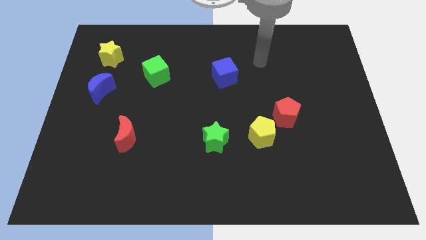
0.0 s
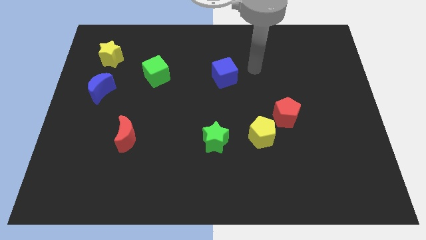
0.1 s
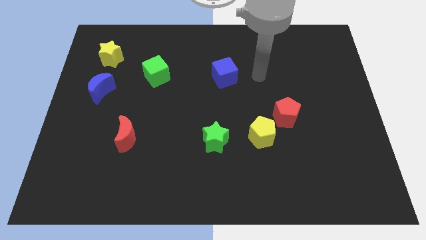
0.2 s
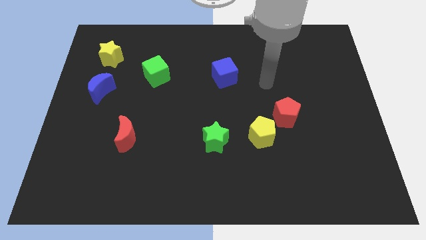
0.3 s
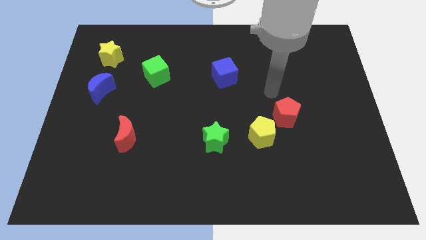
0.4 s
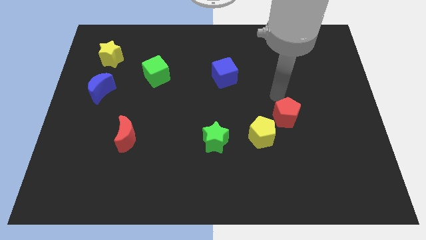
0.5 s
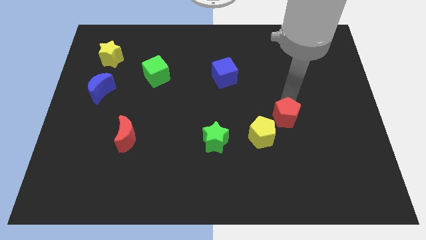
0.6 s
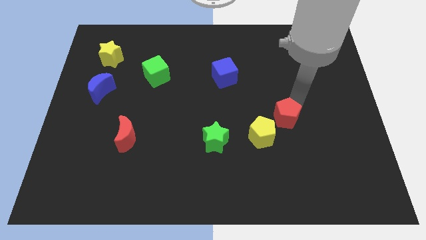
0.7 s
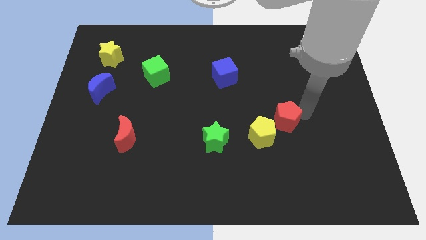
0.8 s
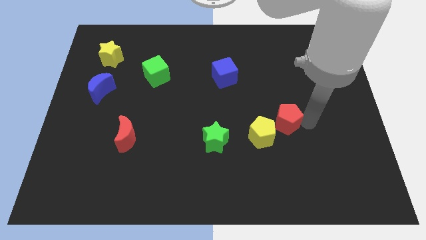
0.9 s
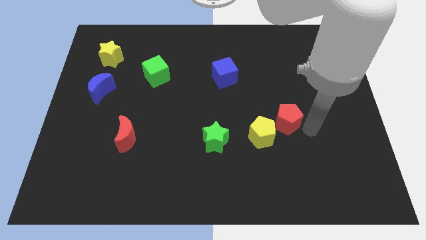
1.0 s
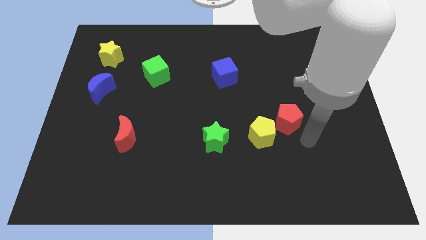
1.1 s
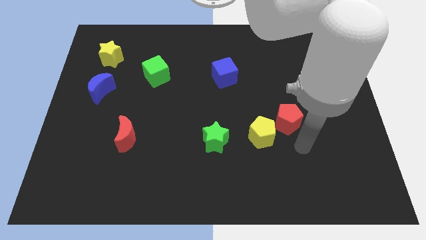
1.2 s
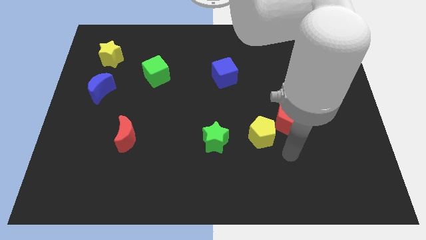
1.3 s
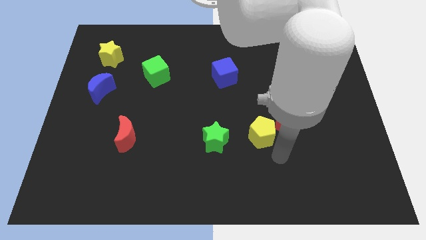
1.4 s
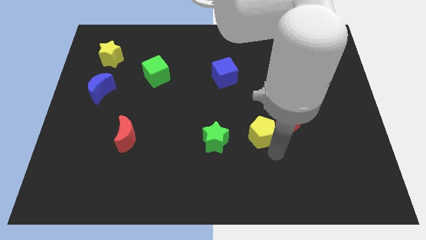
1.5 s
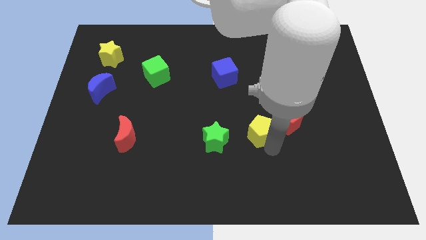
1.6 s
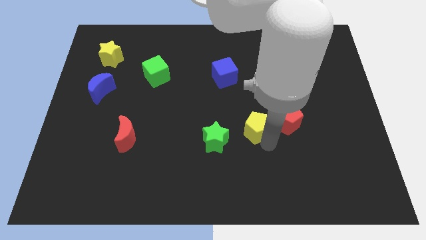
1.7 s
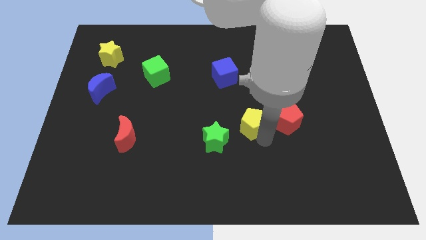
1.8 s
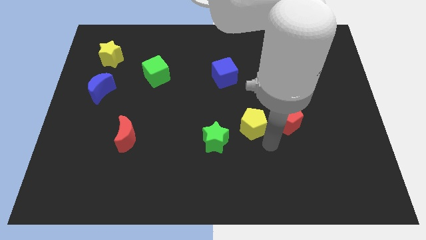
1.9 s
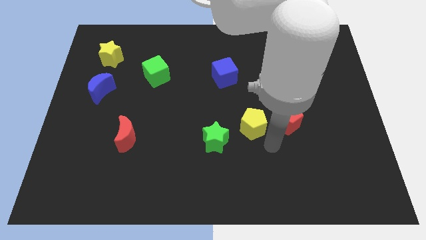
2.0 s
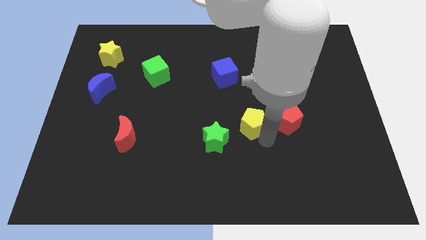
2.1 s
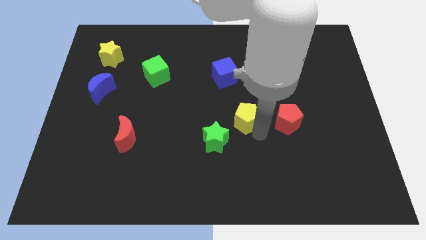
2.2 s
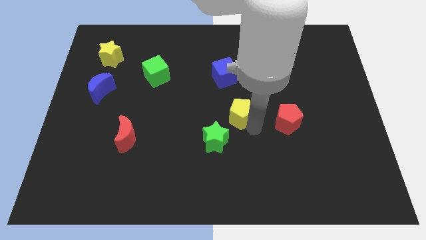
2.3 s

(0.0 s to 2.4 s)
push the yellow pentagon somewhat diagonally up and left

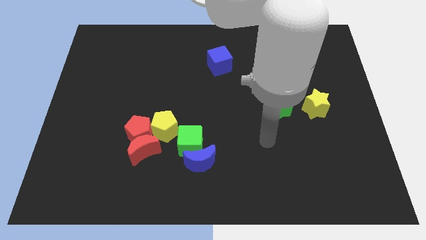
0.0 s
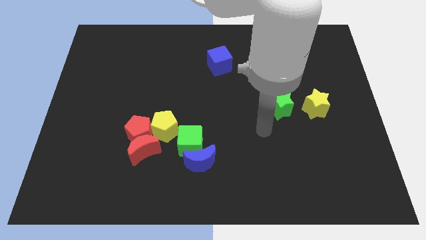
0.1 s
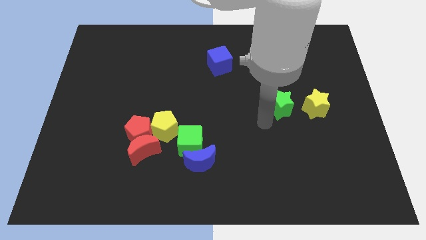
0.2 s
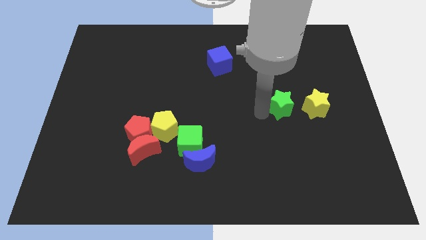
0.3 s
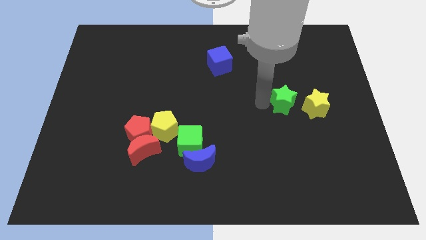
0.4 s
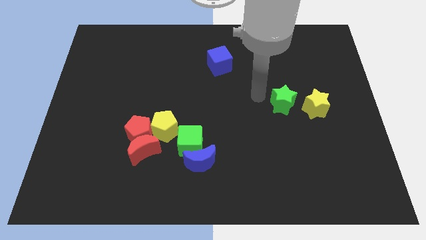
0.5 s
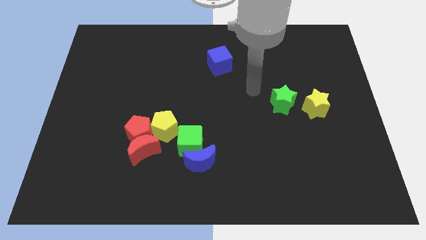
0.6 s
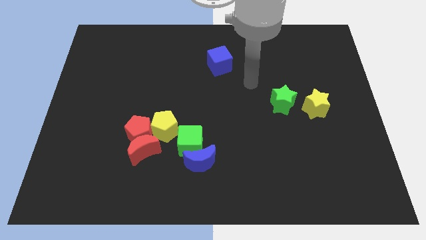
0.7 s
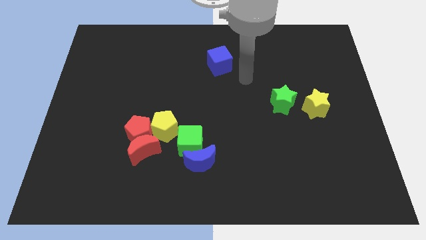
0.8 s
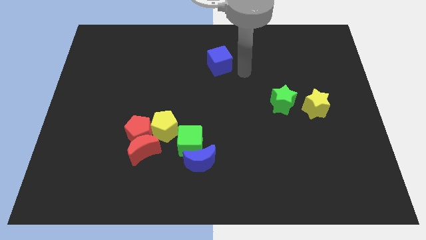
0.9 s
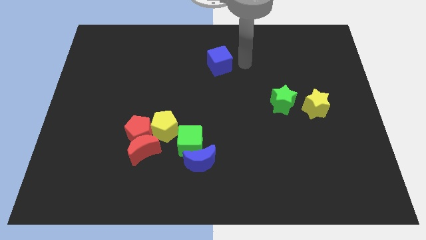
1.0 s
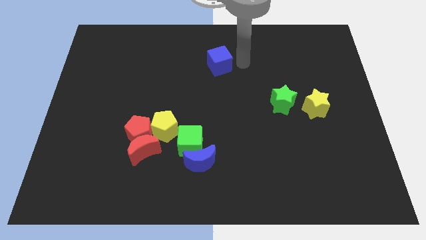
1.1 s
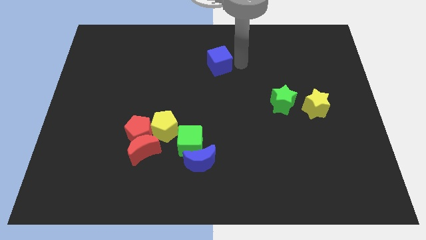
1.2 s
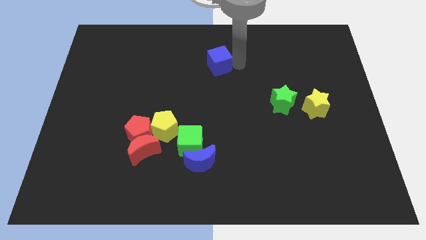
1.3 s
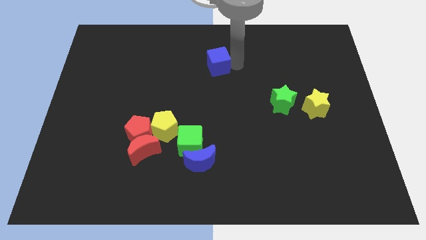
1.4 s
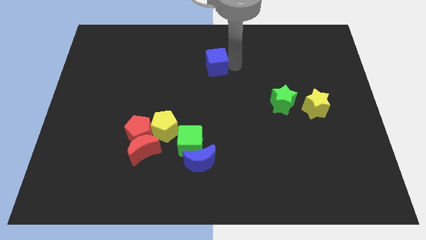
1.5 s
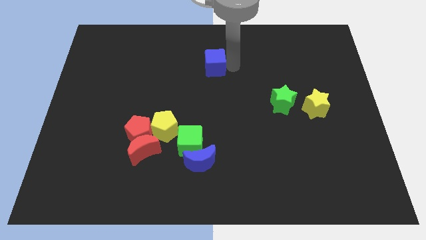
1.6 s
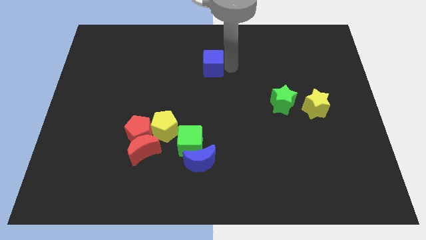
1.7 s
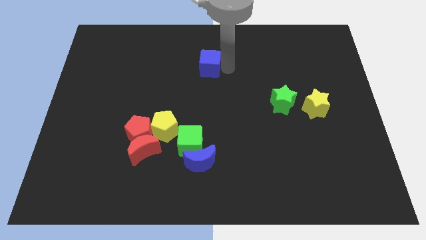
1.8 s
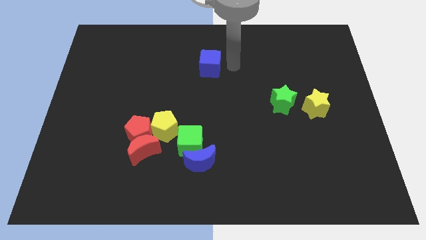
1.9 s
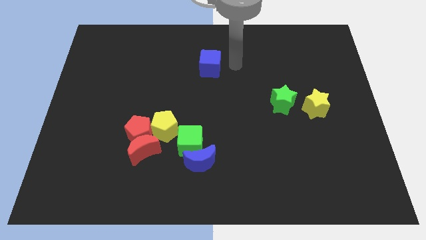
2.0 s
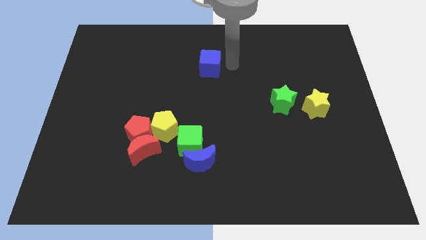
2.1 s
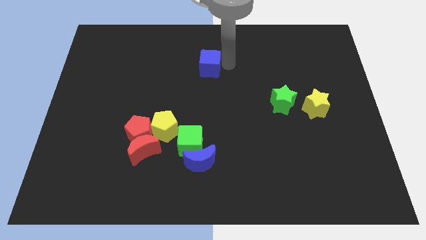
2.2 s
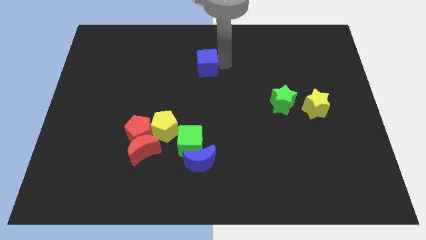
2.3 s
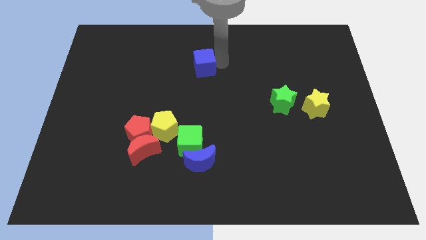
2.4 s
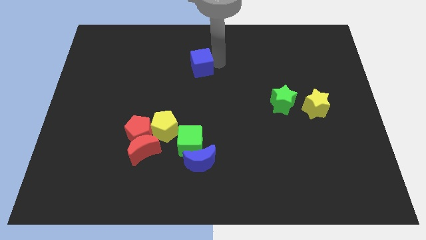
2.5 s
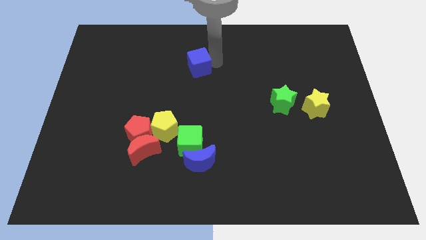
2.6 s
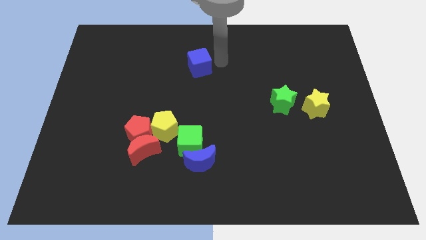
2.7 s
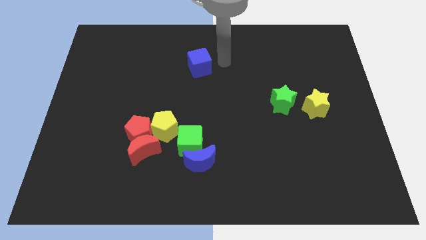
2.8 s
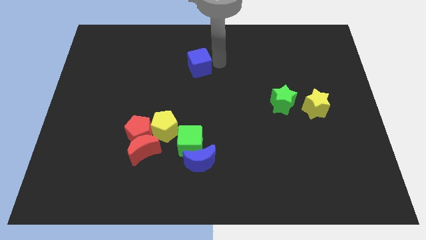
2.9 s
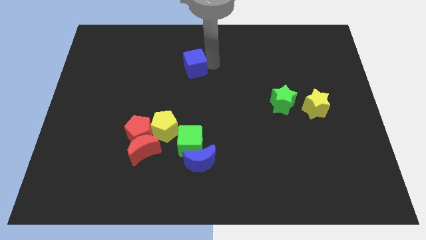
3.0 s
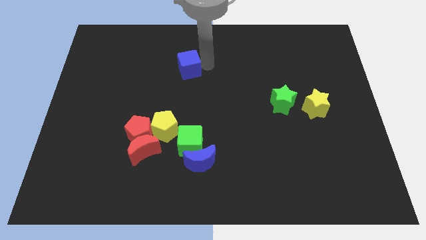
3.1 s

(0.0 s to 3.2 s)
move the blue cube a bit left

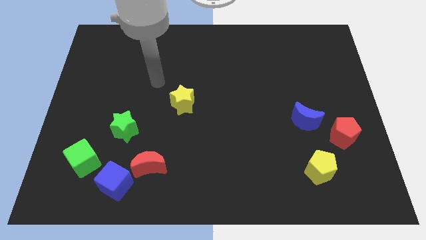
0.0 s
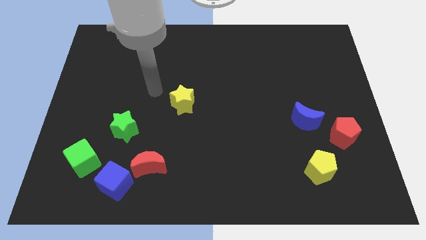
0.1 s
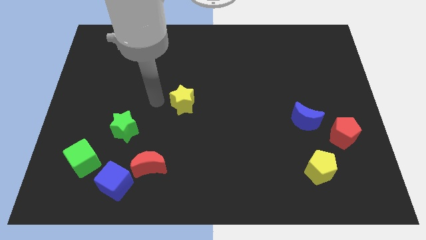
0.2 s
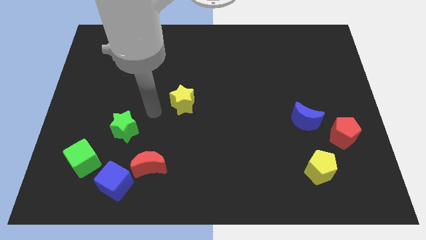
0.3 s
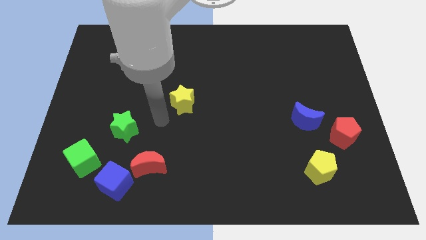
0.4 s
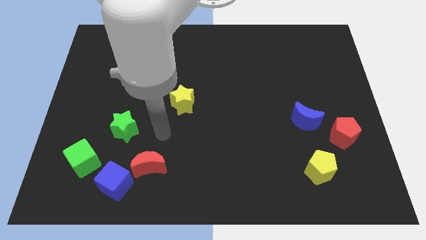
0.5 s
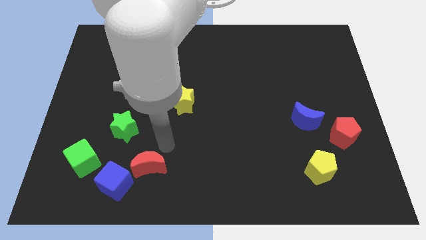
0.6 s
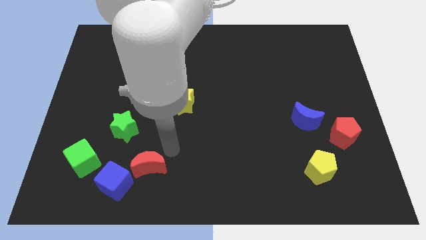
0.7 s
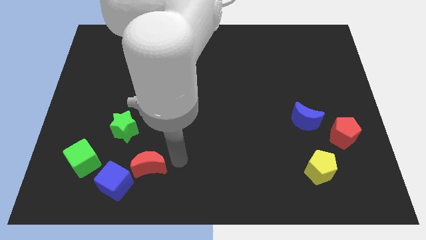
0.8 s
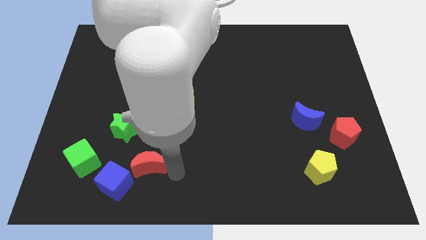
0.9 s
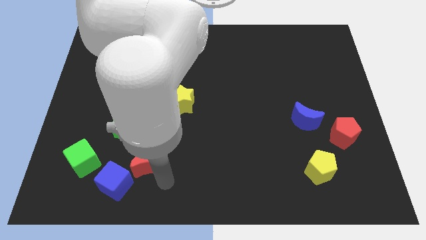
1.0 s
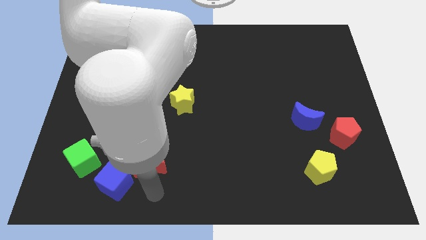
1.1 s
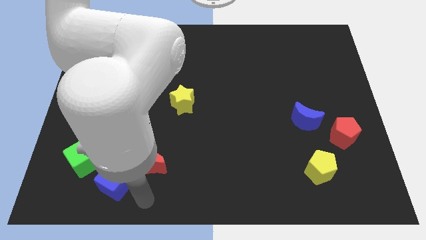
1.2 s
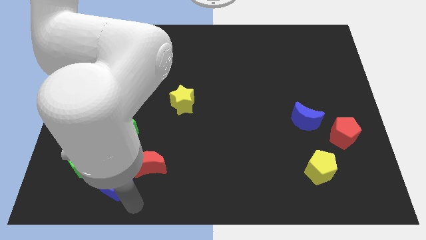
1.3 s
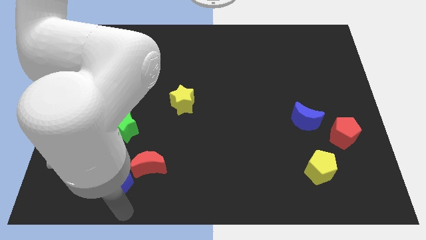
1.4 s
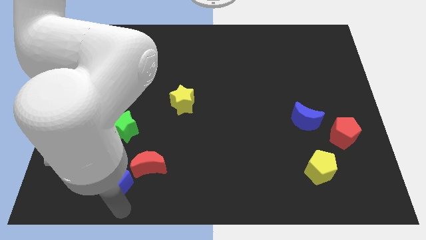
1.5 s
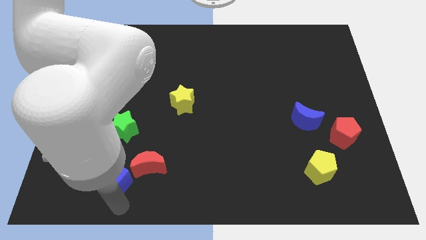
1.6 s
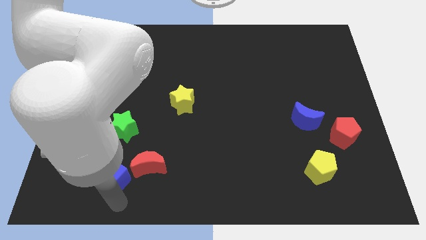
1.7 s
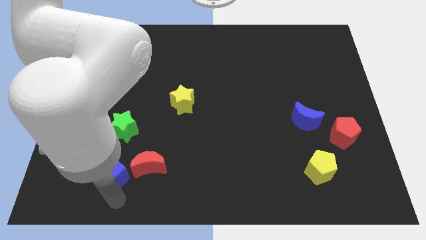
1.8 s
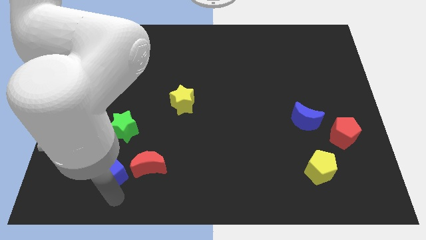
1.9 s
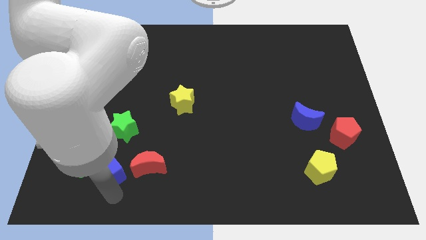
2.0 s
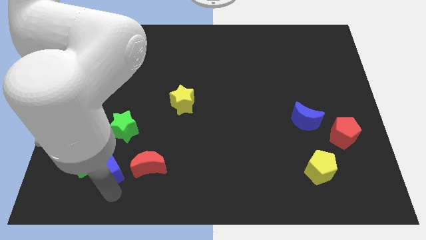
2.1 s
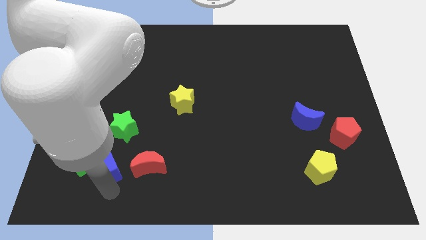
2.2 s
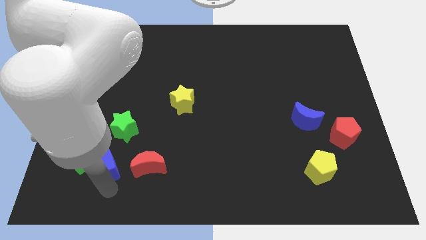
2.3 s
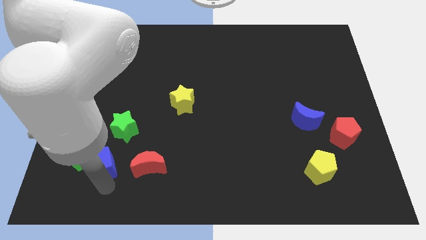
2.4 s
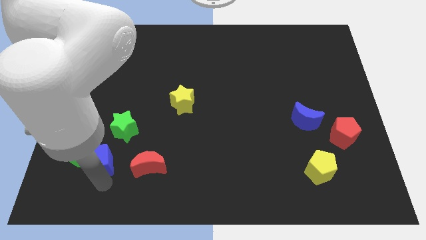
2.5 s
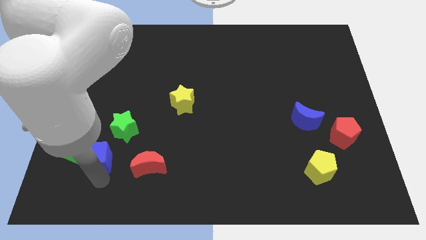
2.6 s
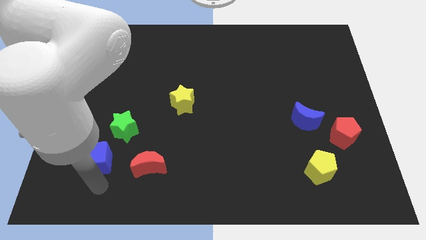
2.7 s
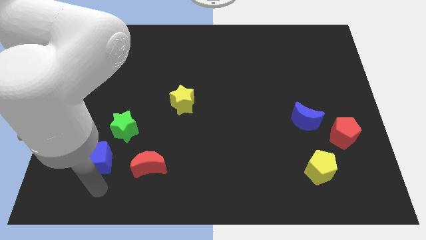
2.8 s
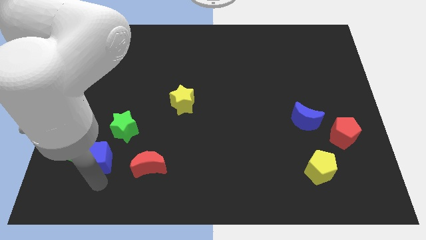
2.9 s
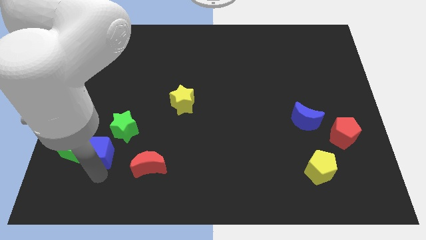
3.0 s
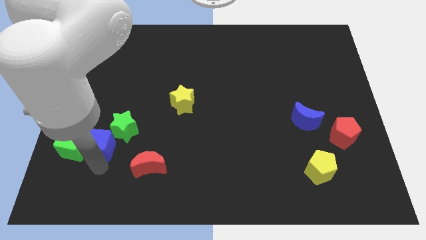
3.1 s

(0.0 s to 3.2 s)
slightly push the blue cube upwards
